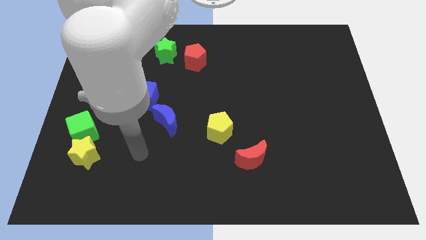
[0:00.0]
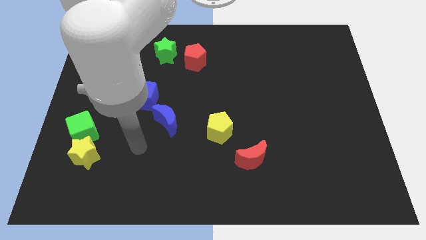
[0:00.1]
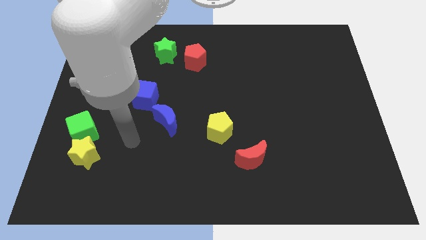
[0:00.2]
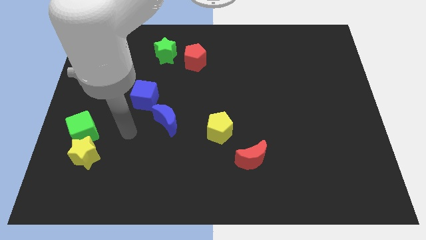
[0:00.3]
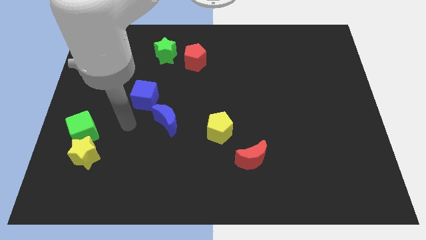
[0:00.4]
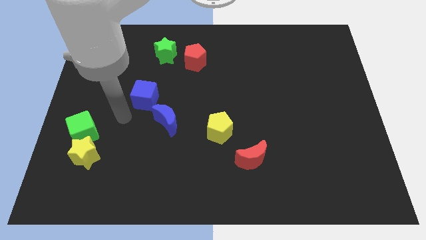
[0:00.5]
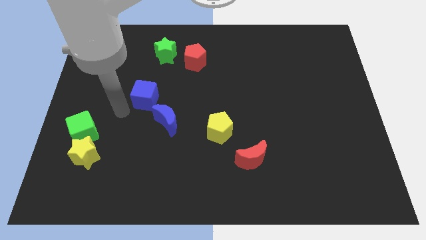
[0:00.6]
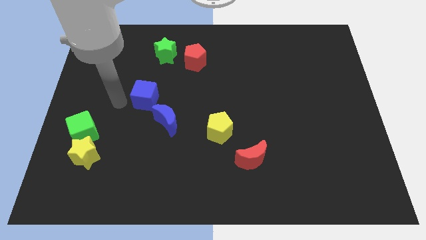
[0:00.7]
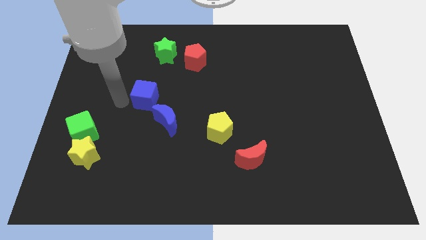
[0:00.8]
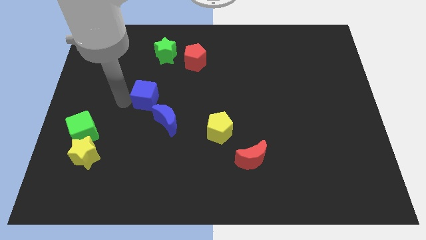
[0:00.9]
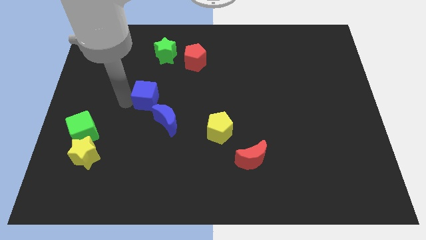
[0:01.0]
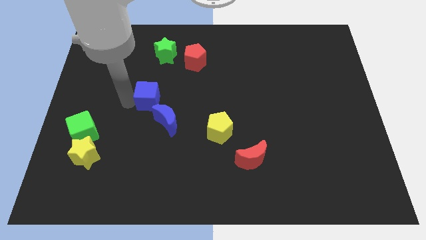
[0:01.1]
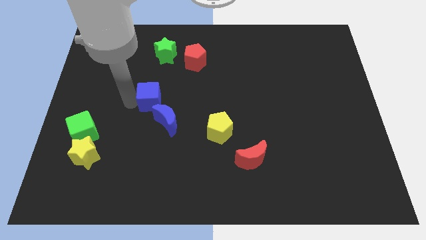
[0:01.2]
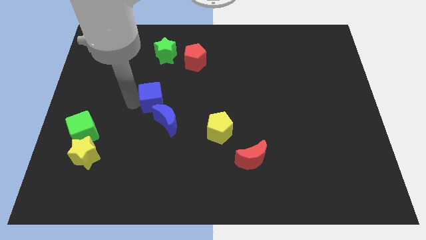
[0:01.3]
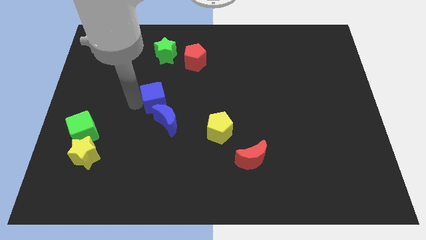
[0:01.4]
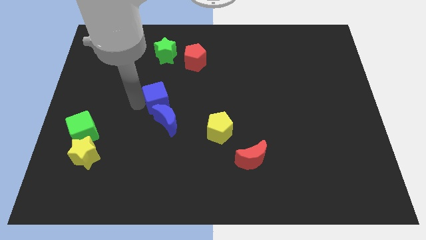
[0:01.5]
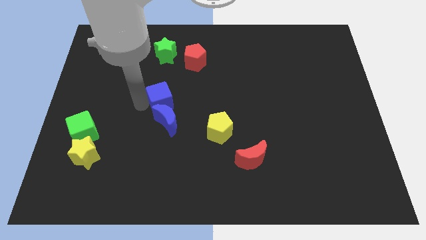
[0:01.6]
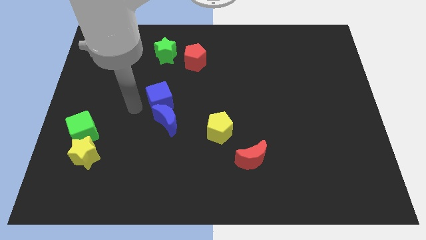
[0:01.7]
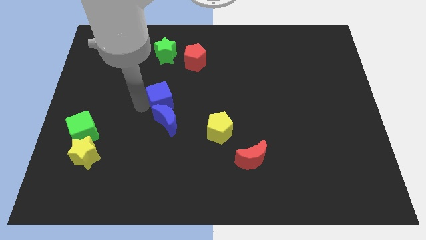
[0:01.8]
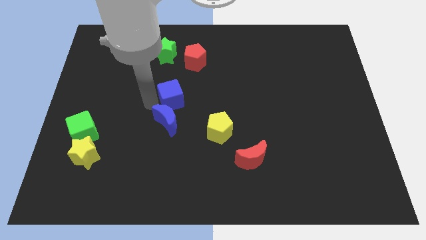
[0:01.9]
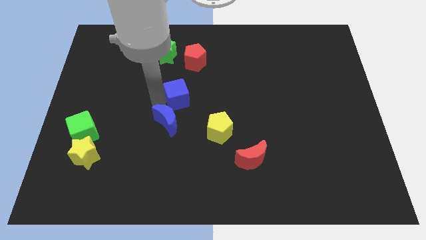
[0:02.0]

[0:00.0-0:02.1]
slightly move the blue cube to the right

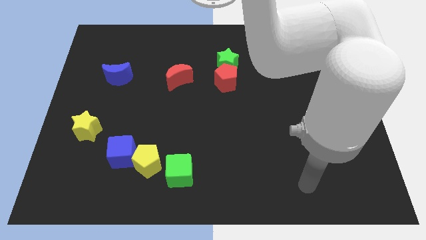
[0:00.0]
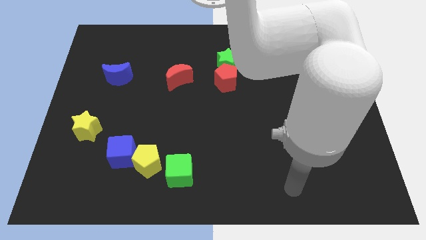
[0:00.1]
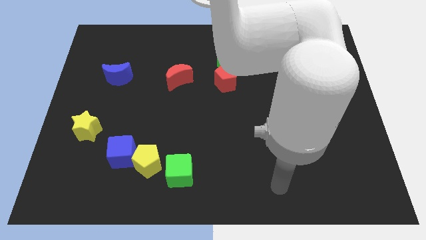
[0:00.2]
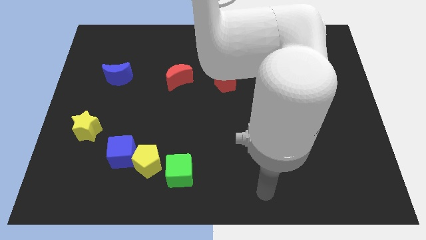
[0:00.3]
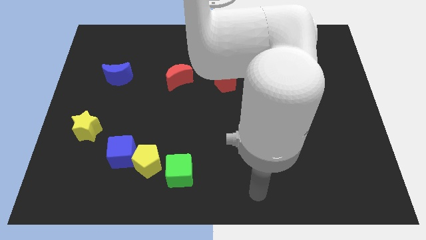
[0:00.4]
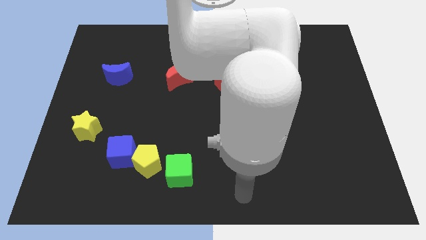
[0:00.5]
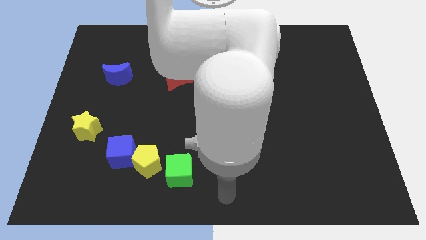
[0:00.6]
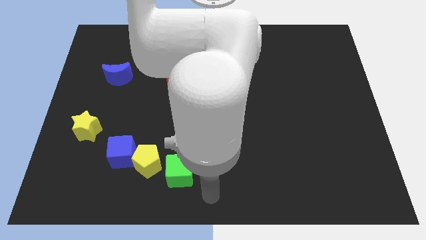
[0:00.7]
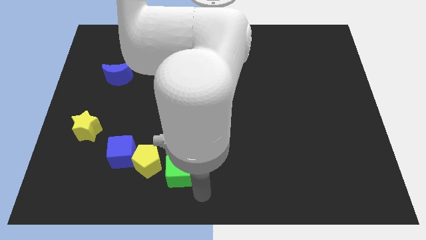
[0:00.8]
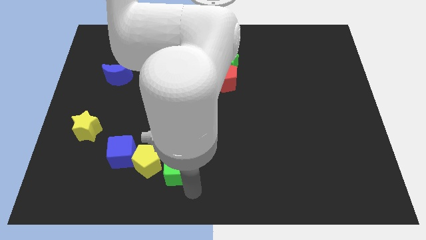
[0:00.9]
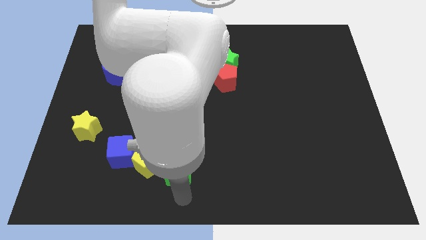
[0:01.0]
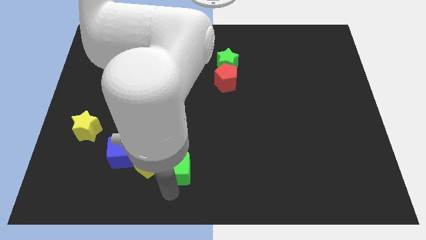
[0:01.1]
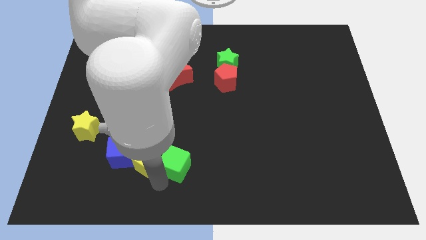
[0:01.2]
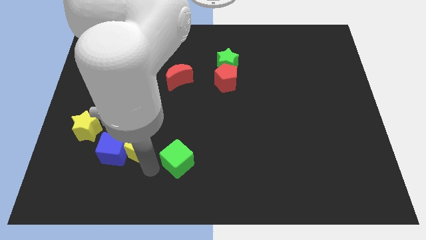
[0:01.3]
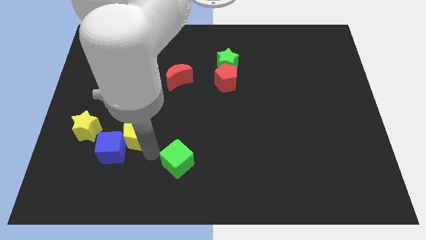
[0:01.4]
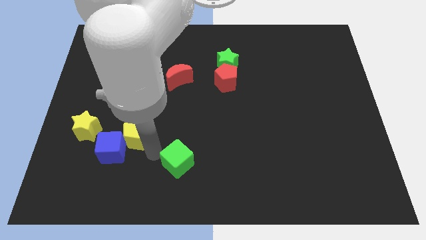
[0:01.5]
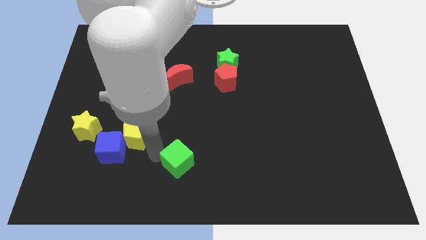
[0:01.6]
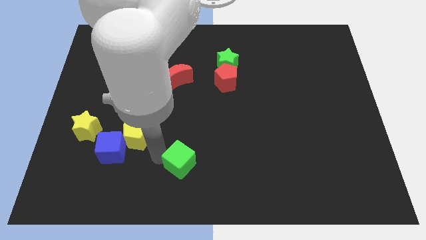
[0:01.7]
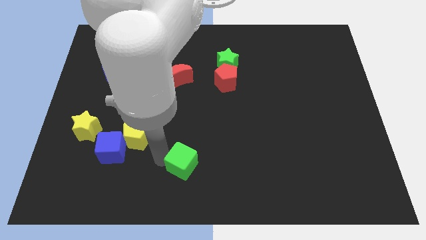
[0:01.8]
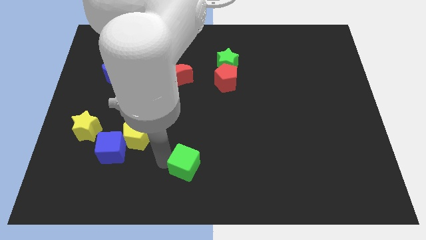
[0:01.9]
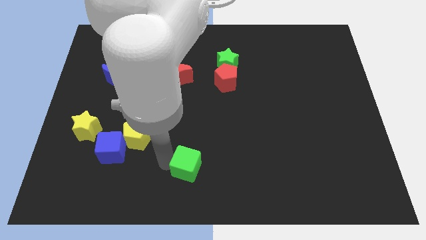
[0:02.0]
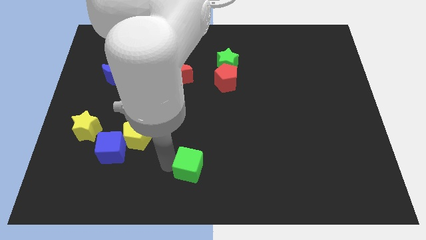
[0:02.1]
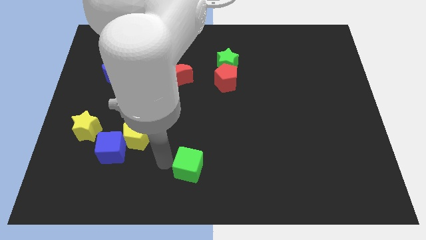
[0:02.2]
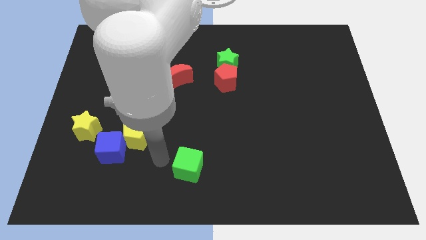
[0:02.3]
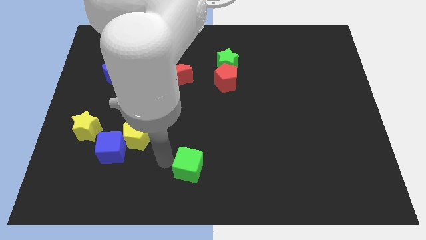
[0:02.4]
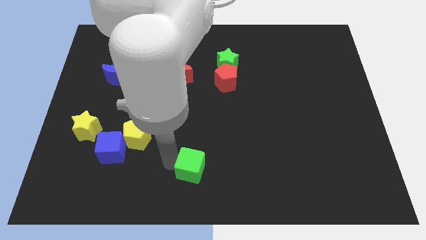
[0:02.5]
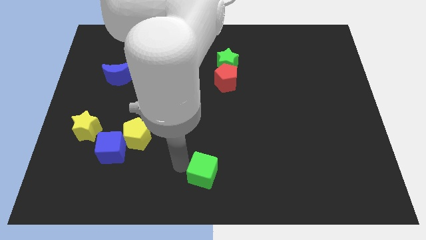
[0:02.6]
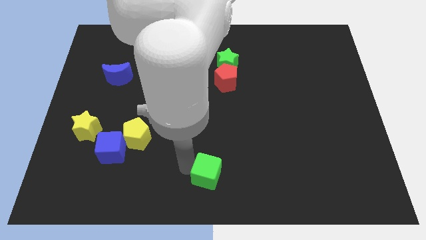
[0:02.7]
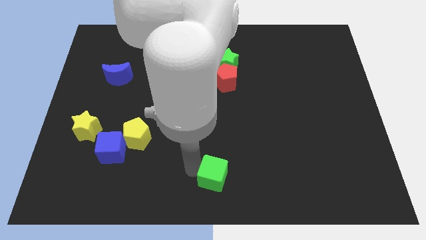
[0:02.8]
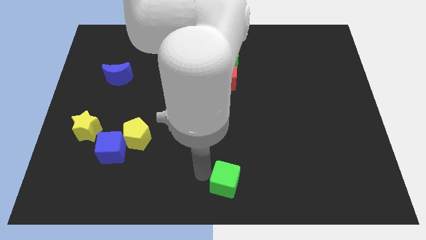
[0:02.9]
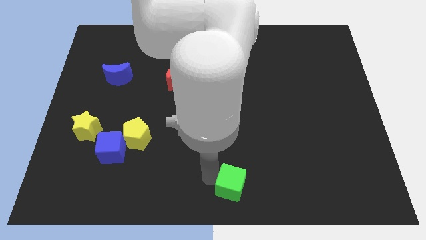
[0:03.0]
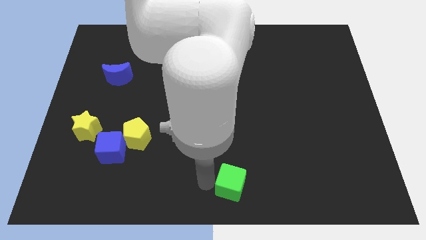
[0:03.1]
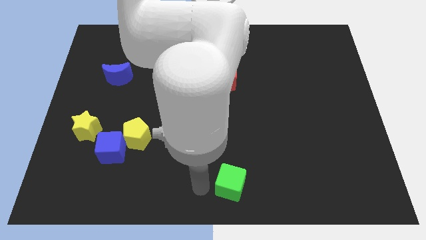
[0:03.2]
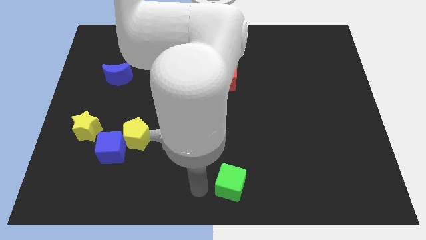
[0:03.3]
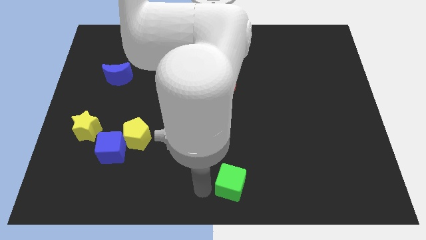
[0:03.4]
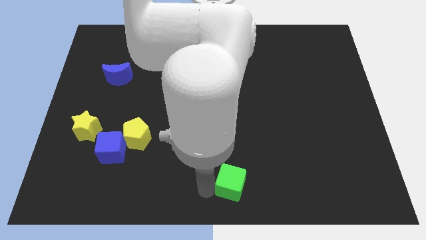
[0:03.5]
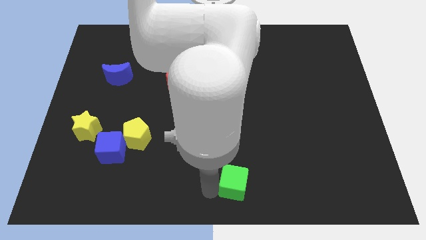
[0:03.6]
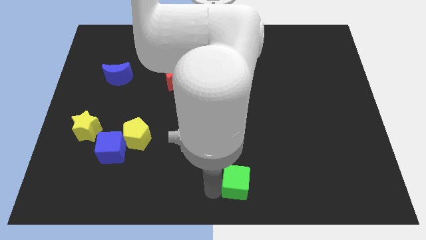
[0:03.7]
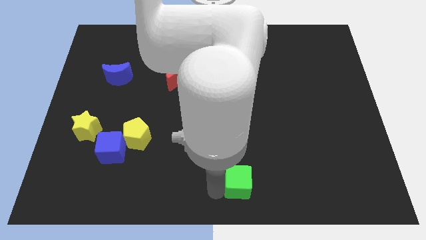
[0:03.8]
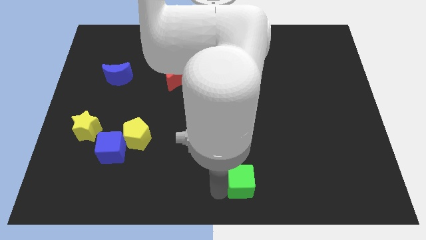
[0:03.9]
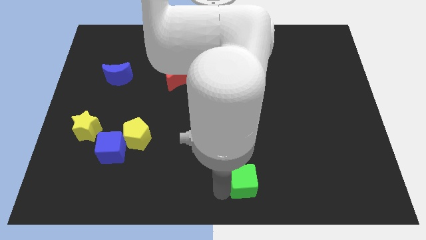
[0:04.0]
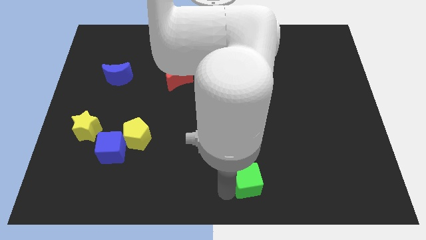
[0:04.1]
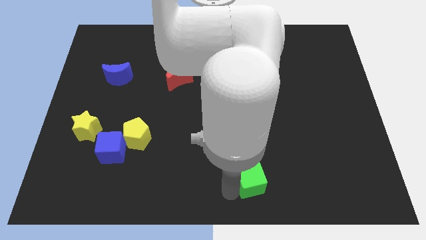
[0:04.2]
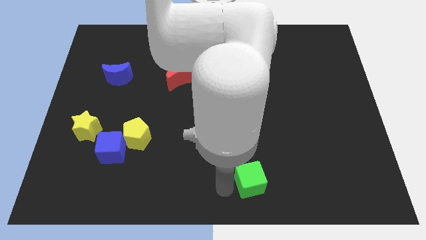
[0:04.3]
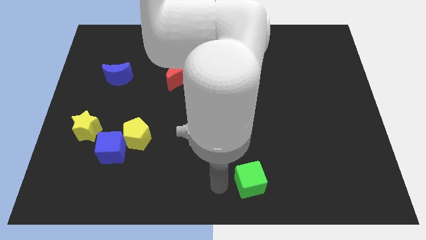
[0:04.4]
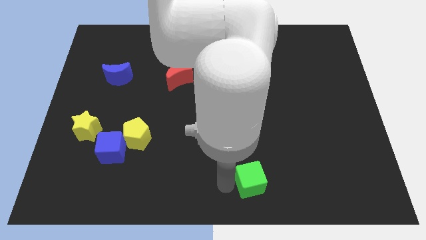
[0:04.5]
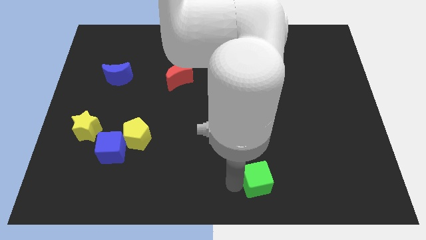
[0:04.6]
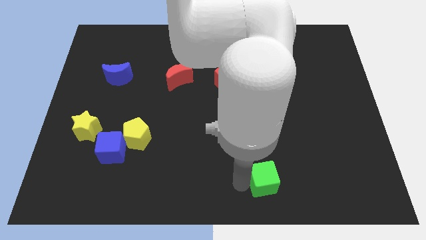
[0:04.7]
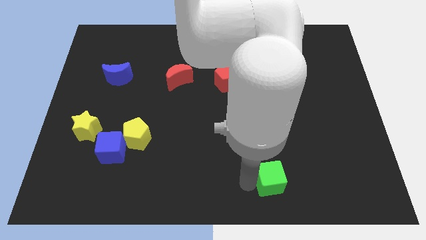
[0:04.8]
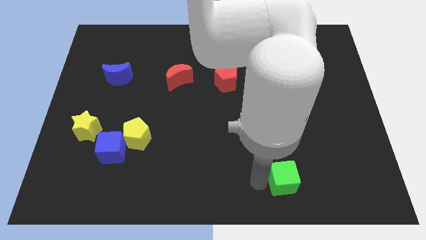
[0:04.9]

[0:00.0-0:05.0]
slide the green cube to the right

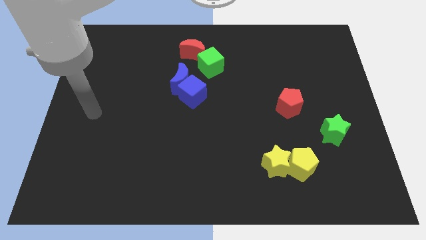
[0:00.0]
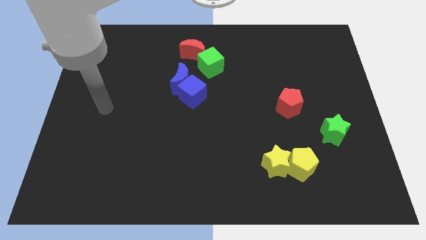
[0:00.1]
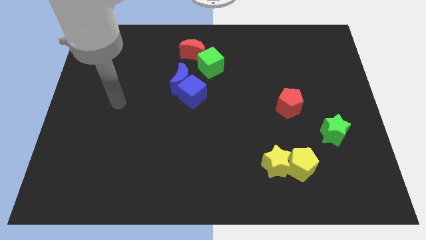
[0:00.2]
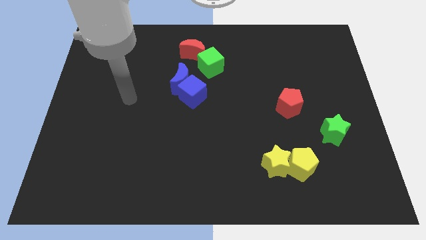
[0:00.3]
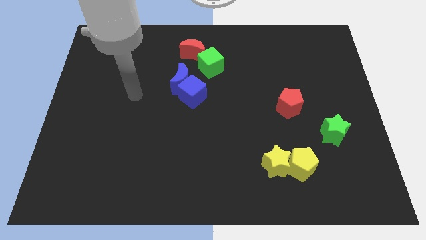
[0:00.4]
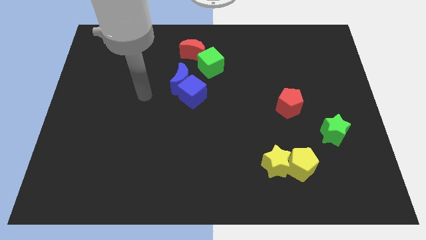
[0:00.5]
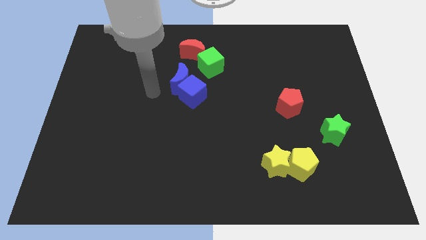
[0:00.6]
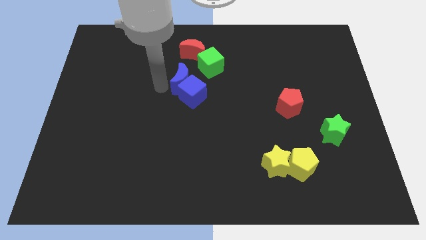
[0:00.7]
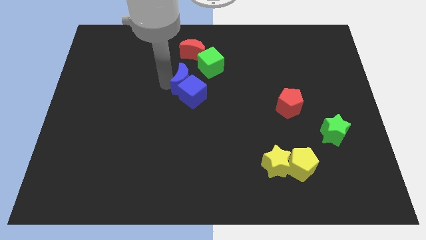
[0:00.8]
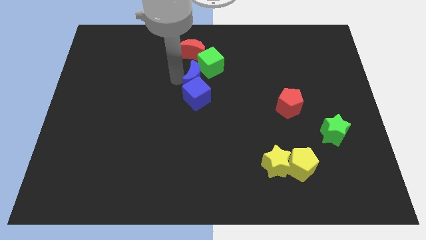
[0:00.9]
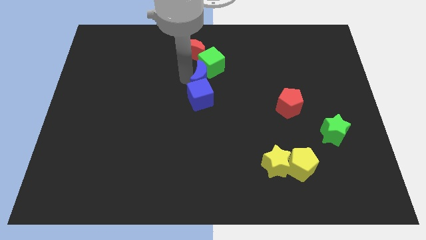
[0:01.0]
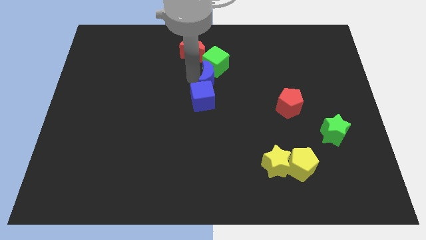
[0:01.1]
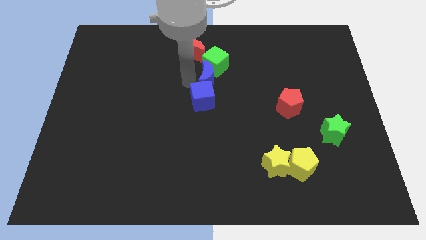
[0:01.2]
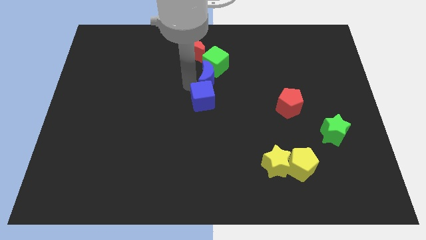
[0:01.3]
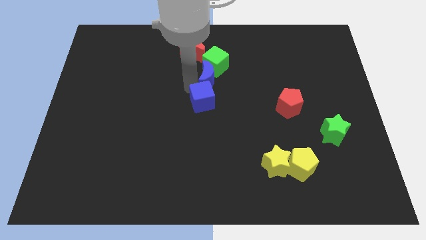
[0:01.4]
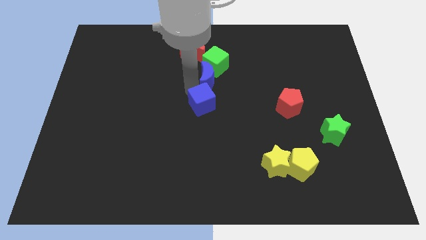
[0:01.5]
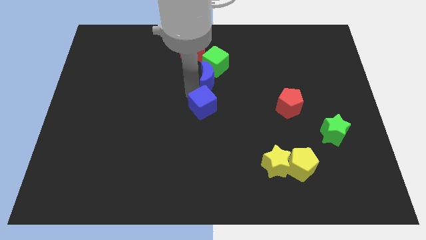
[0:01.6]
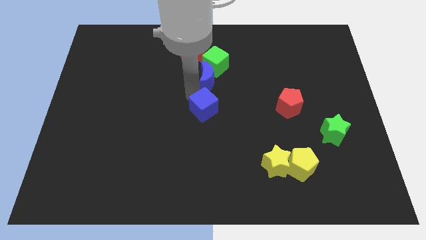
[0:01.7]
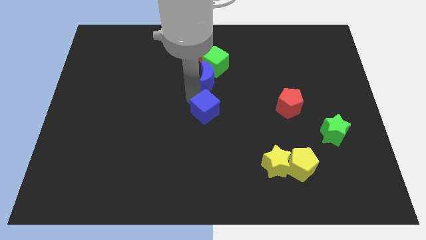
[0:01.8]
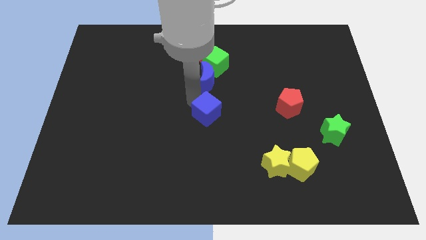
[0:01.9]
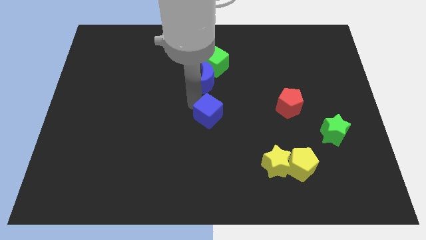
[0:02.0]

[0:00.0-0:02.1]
move the blue cube downwards and to the right somewhat
